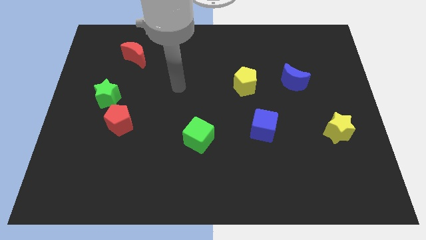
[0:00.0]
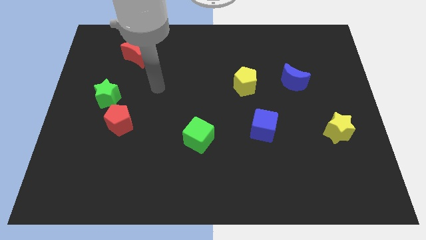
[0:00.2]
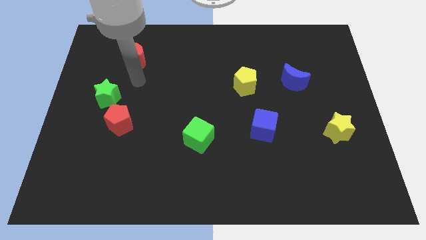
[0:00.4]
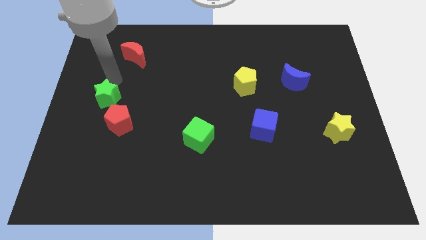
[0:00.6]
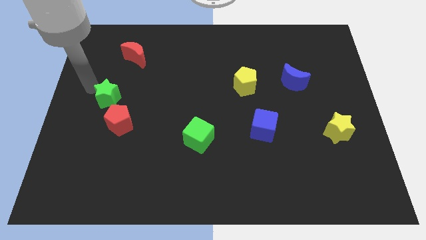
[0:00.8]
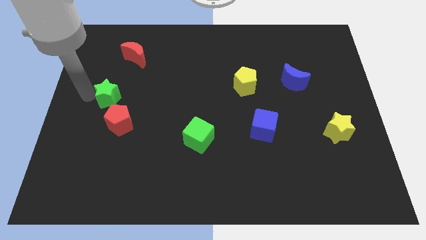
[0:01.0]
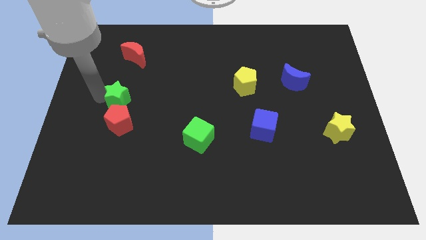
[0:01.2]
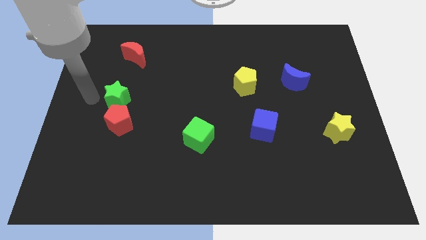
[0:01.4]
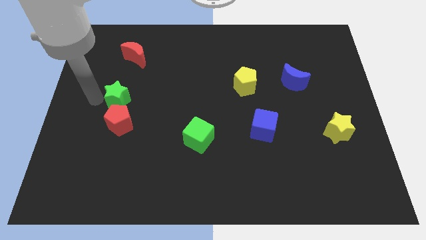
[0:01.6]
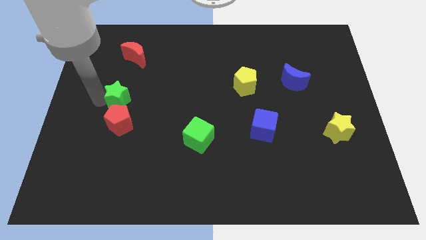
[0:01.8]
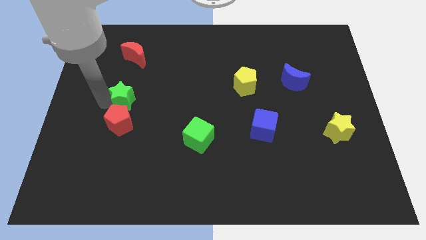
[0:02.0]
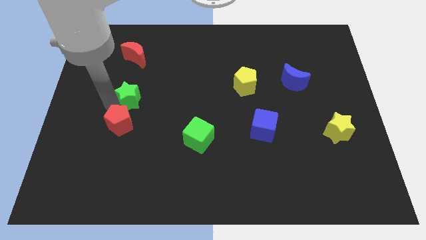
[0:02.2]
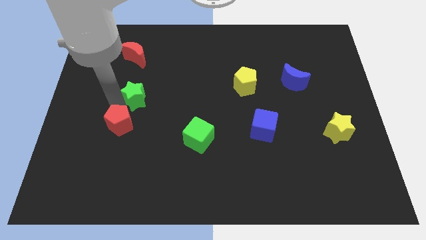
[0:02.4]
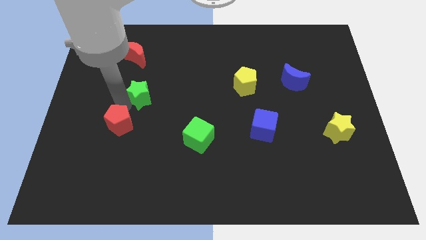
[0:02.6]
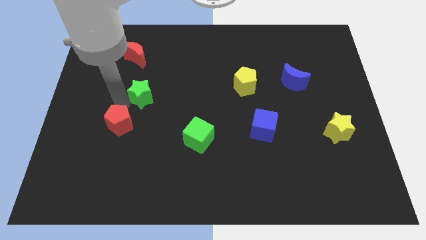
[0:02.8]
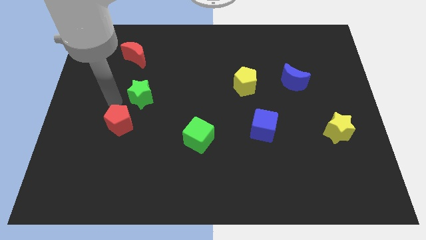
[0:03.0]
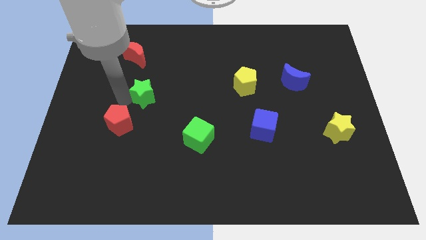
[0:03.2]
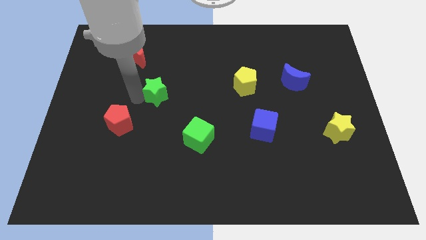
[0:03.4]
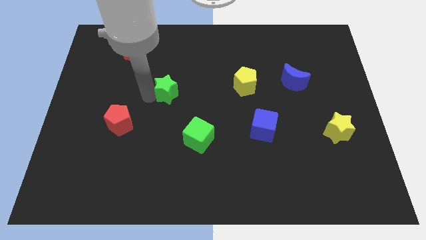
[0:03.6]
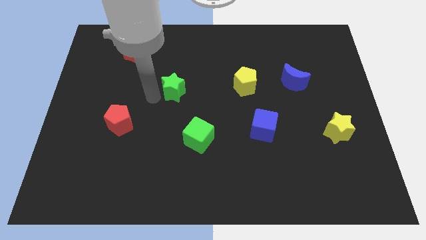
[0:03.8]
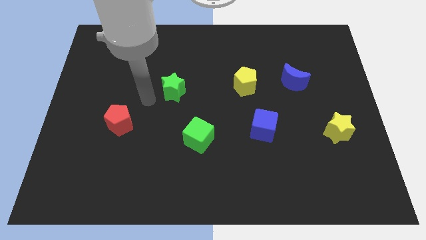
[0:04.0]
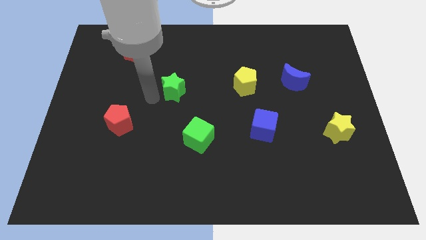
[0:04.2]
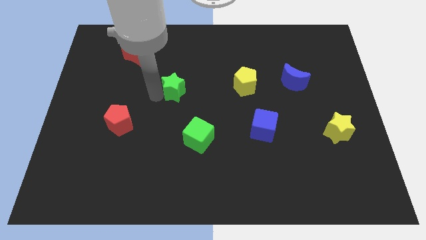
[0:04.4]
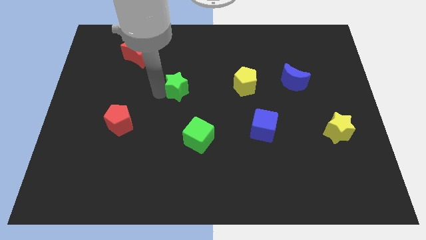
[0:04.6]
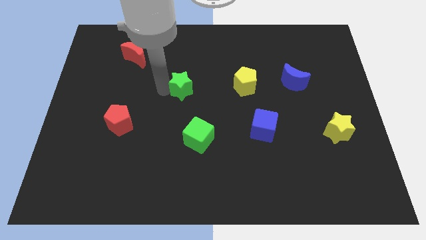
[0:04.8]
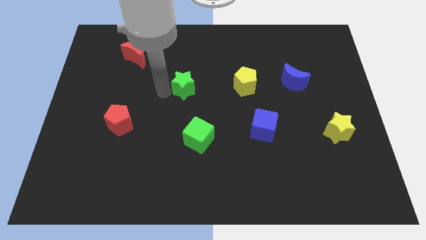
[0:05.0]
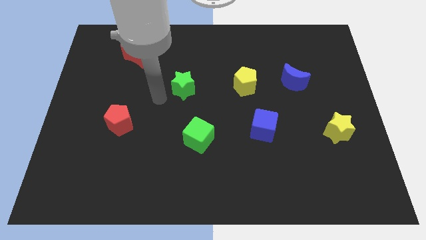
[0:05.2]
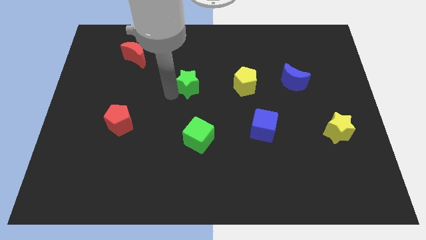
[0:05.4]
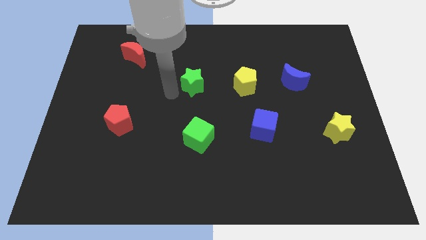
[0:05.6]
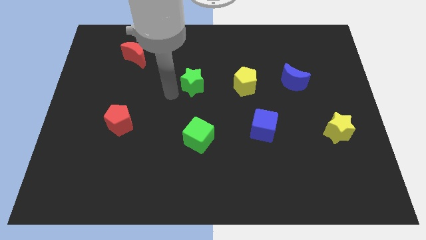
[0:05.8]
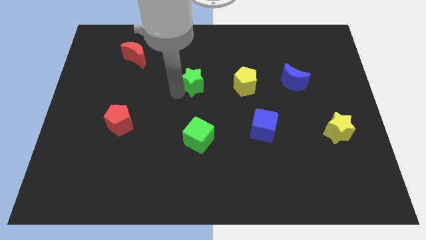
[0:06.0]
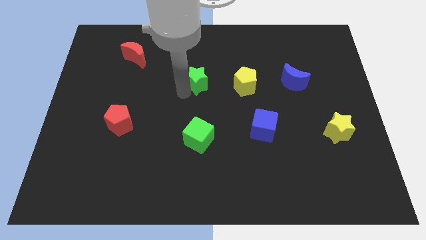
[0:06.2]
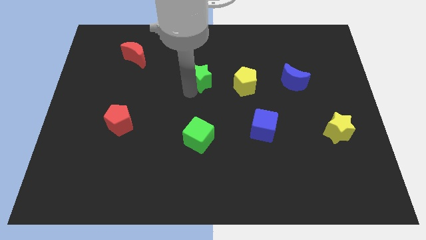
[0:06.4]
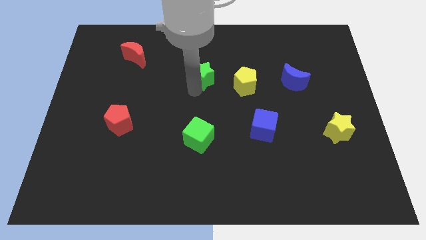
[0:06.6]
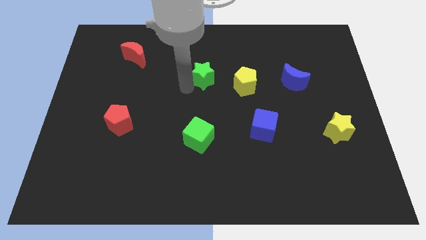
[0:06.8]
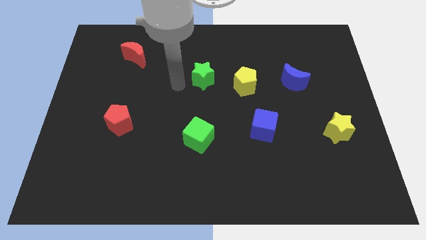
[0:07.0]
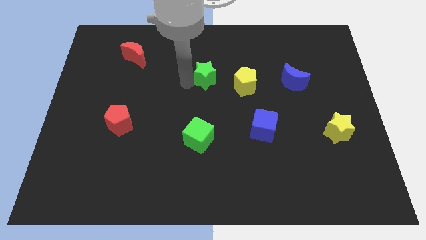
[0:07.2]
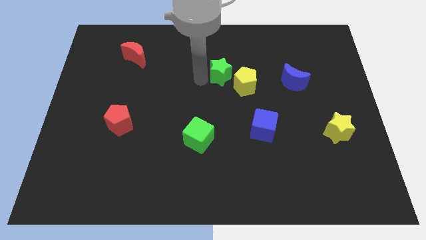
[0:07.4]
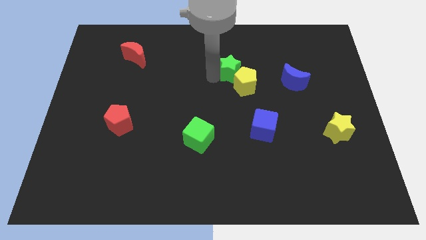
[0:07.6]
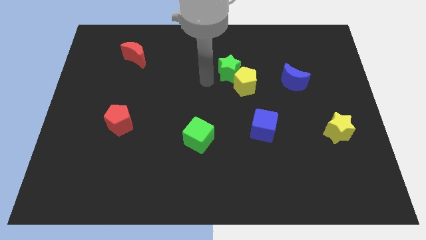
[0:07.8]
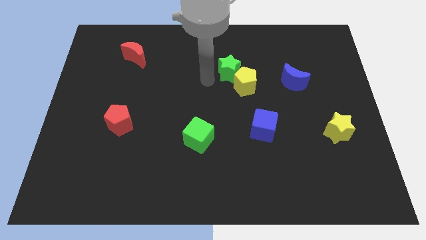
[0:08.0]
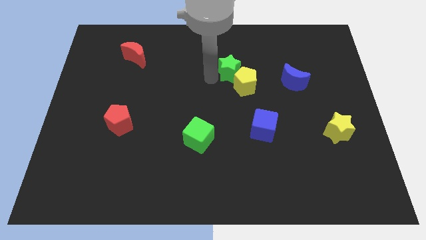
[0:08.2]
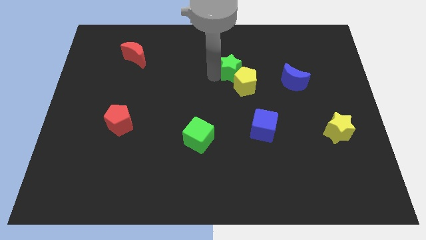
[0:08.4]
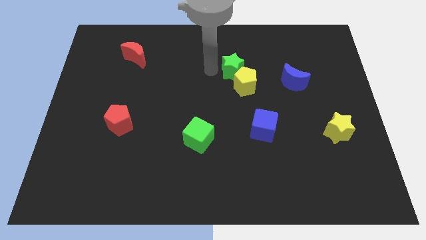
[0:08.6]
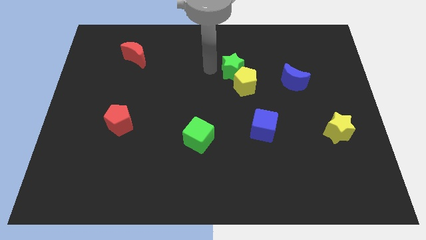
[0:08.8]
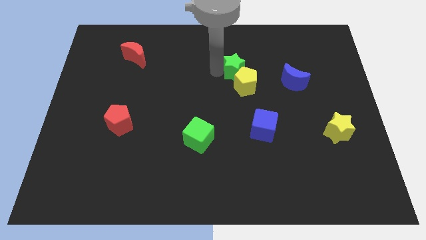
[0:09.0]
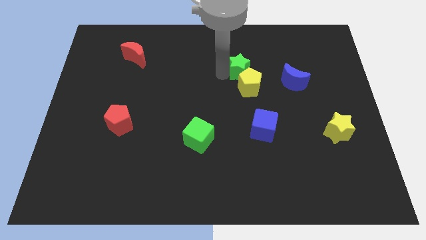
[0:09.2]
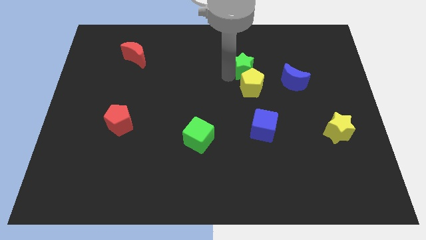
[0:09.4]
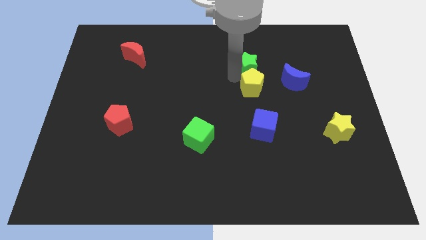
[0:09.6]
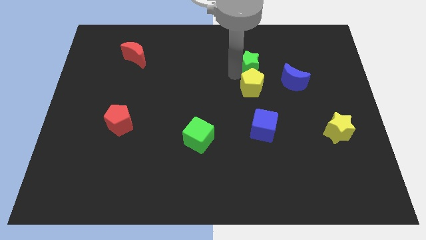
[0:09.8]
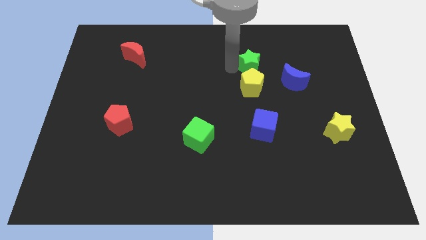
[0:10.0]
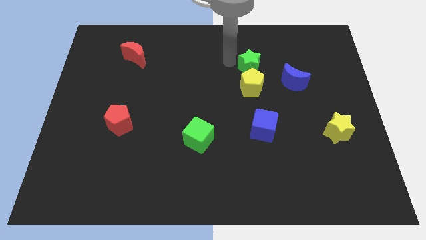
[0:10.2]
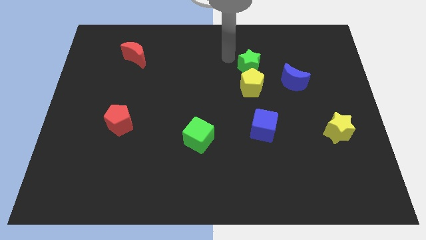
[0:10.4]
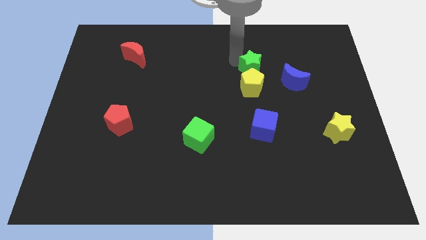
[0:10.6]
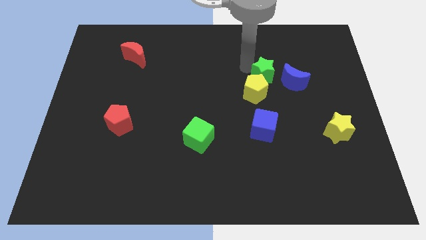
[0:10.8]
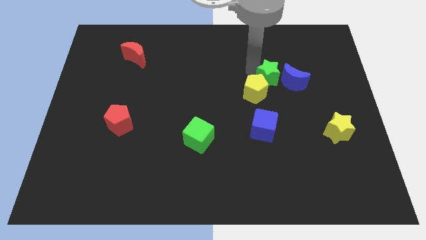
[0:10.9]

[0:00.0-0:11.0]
slide the green star towards the blue moon

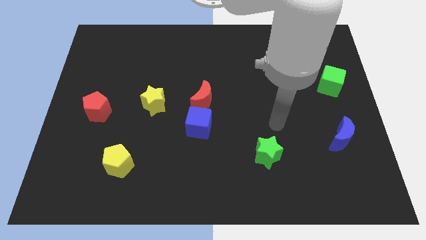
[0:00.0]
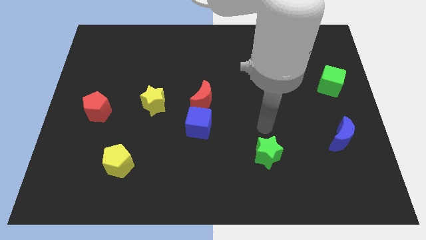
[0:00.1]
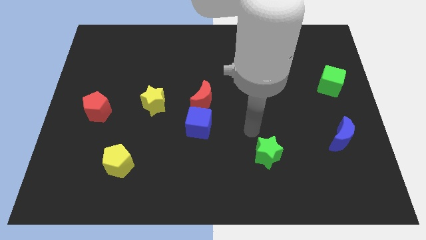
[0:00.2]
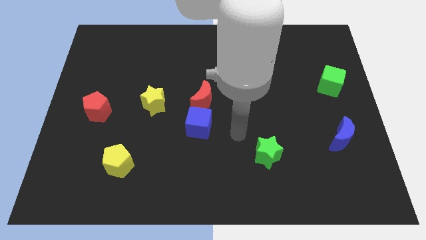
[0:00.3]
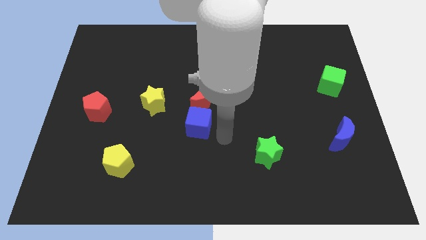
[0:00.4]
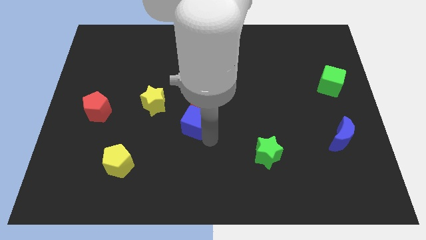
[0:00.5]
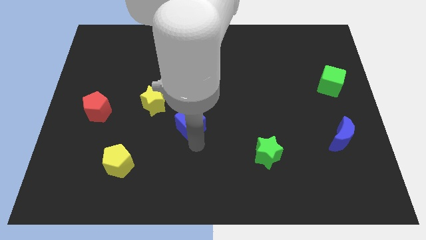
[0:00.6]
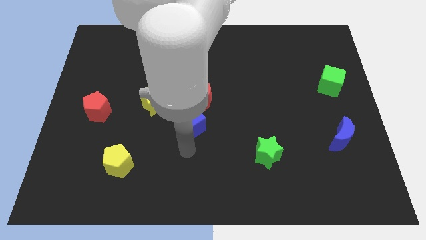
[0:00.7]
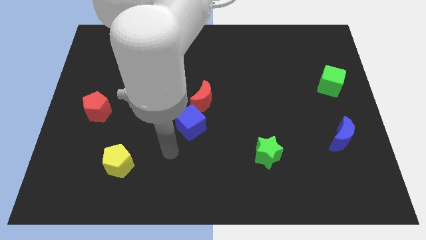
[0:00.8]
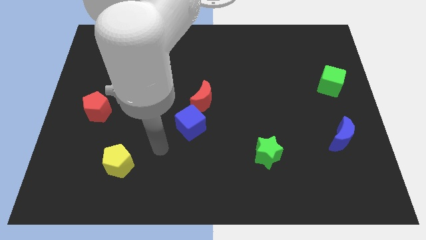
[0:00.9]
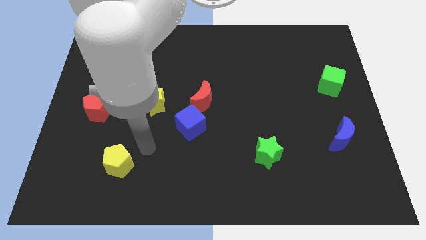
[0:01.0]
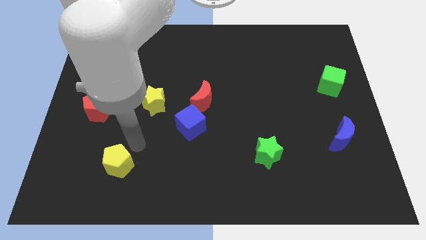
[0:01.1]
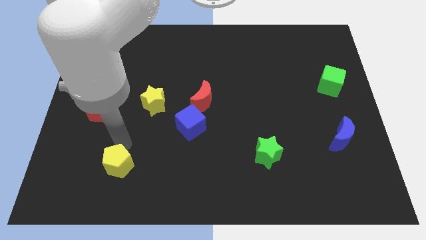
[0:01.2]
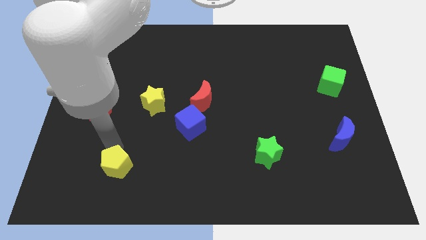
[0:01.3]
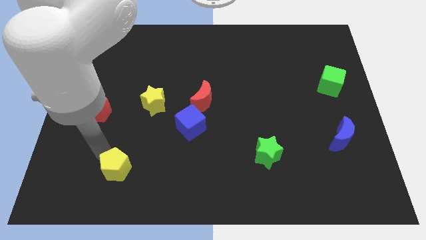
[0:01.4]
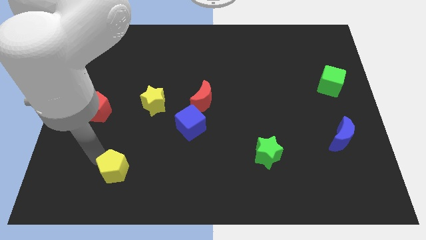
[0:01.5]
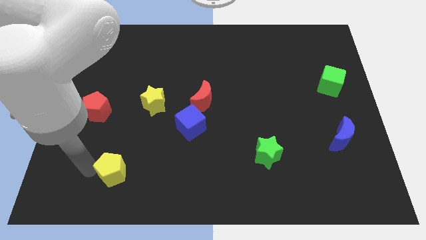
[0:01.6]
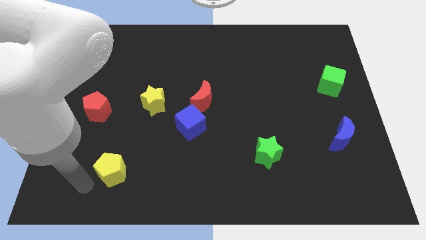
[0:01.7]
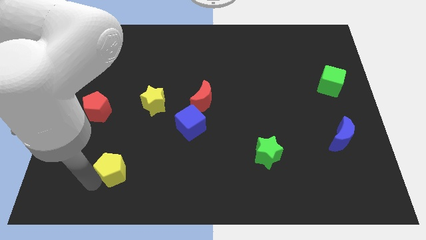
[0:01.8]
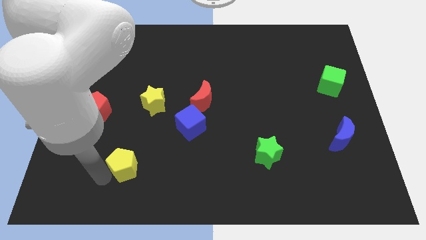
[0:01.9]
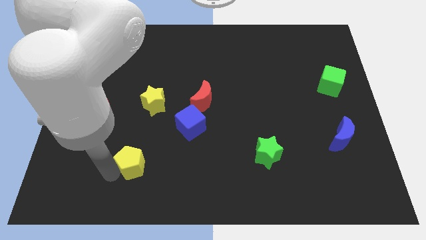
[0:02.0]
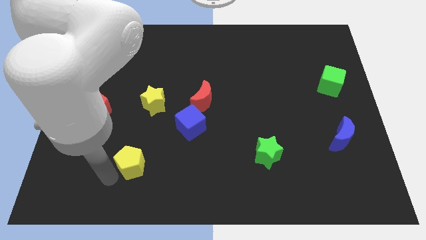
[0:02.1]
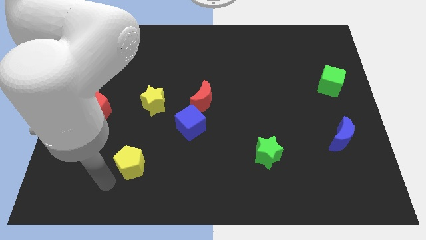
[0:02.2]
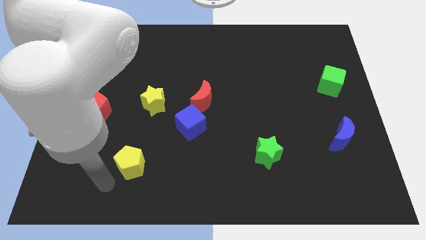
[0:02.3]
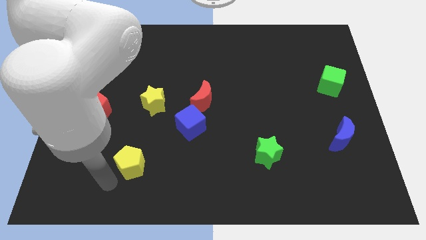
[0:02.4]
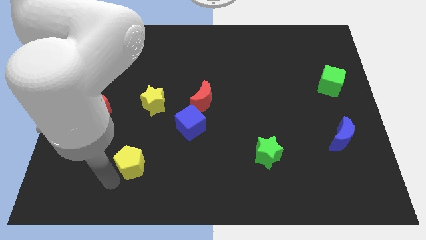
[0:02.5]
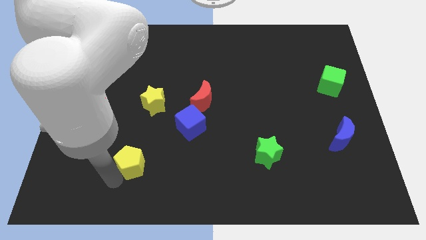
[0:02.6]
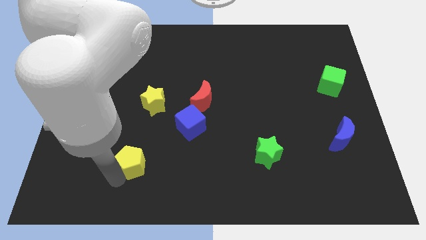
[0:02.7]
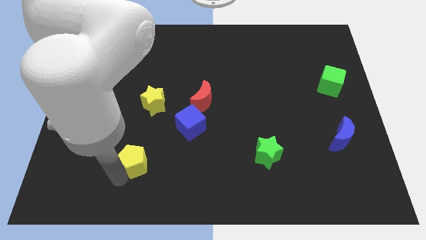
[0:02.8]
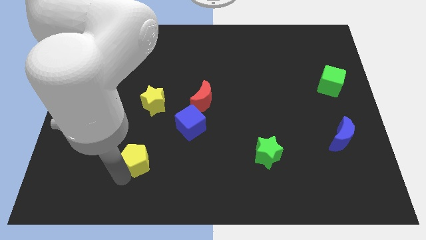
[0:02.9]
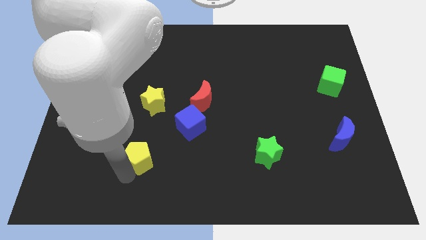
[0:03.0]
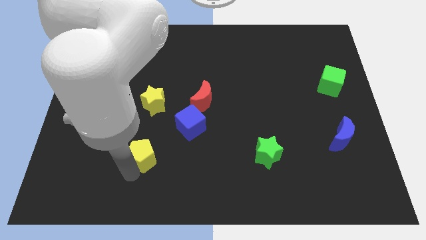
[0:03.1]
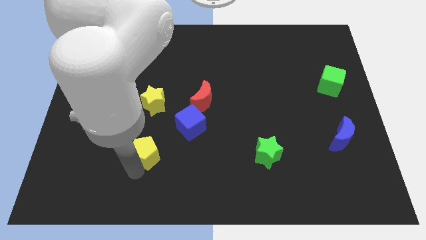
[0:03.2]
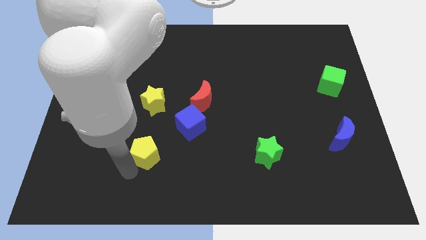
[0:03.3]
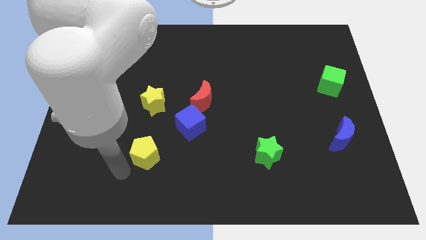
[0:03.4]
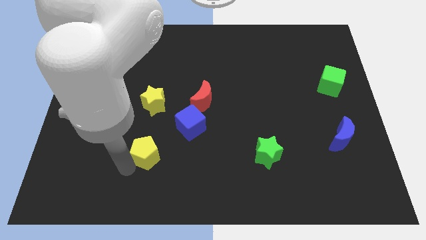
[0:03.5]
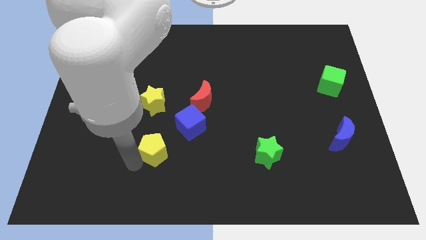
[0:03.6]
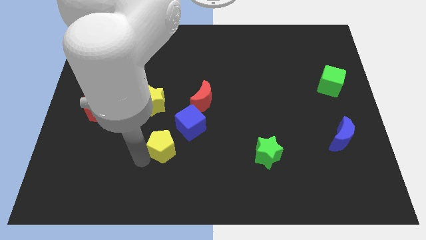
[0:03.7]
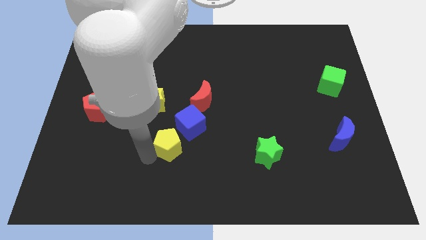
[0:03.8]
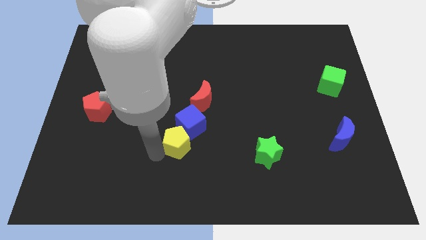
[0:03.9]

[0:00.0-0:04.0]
put the yellow pentagon next to the blue cube
